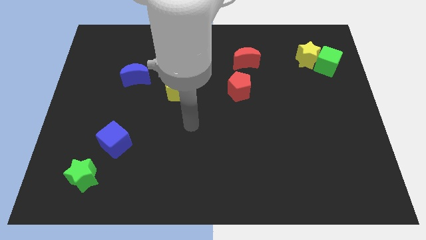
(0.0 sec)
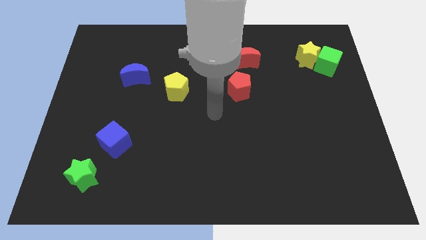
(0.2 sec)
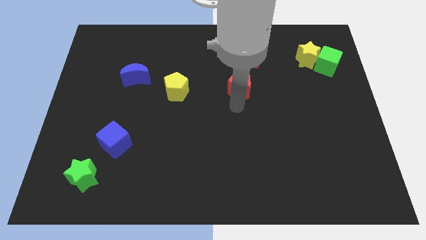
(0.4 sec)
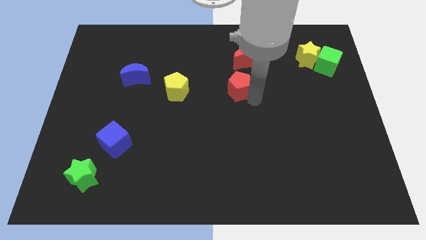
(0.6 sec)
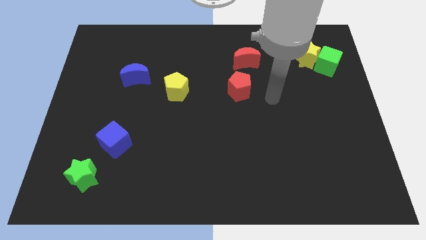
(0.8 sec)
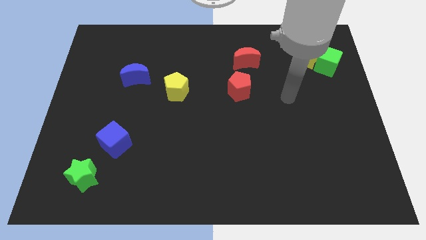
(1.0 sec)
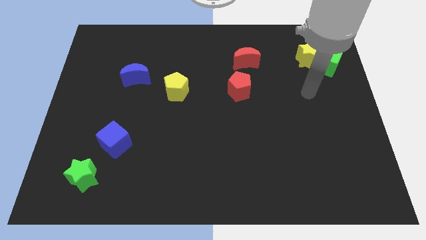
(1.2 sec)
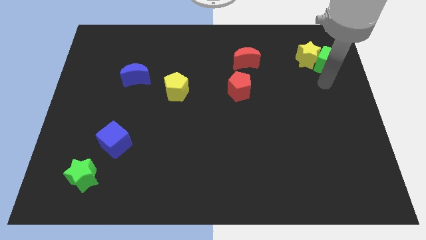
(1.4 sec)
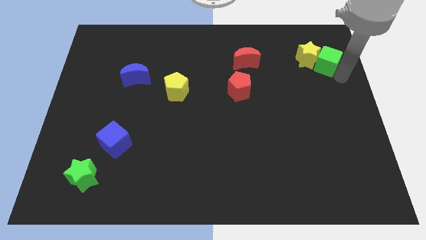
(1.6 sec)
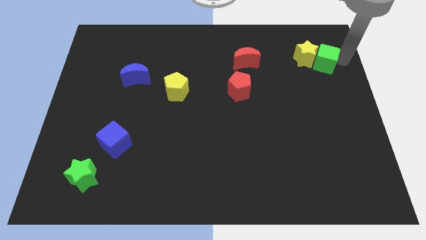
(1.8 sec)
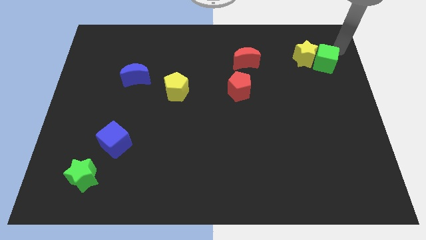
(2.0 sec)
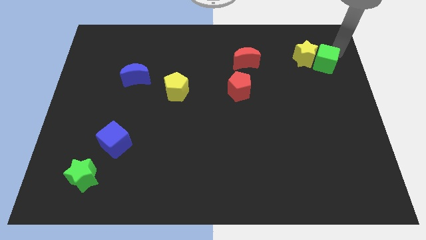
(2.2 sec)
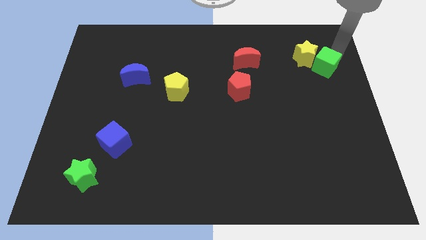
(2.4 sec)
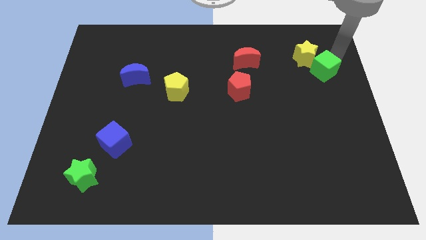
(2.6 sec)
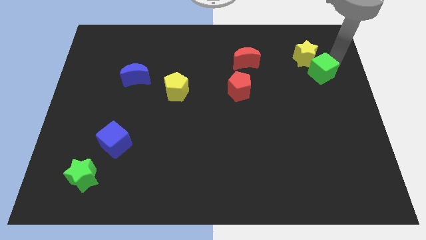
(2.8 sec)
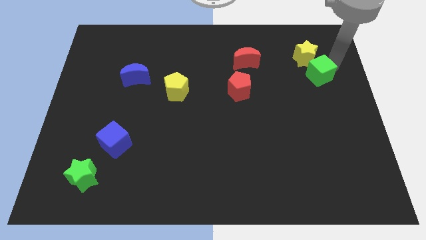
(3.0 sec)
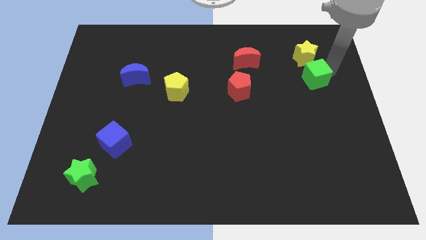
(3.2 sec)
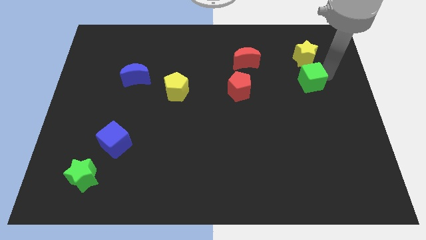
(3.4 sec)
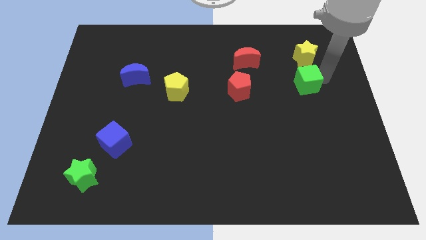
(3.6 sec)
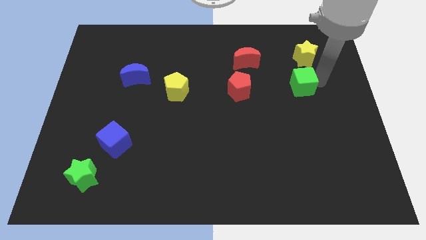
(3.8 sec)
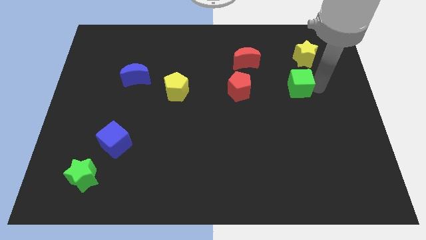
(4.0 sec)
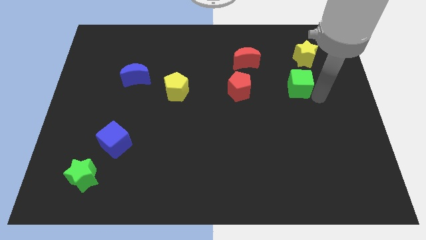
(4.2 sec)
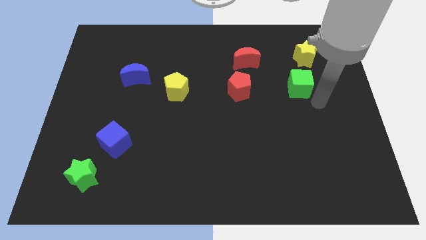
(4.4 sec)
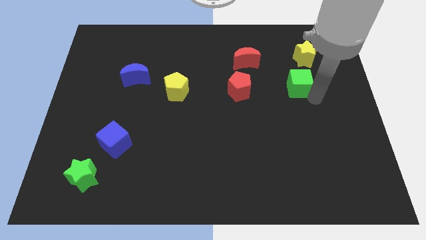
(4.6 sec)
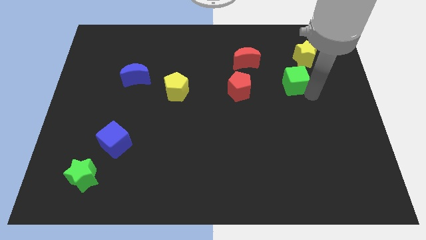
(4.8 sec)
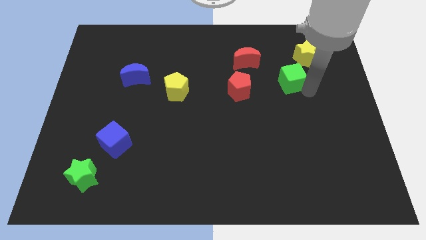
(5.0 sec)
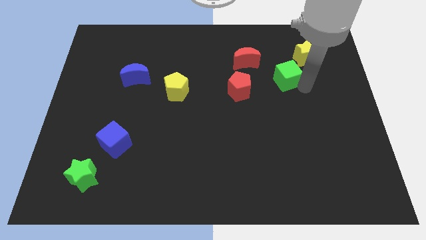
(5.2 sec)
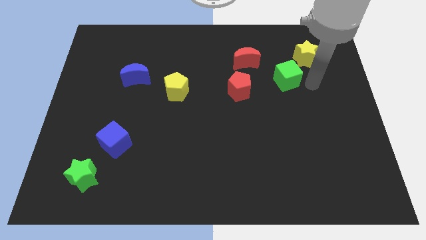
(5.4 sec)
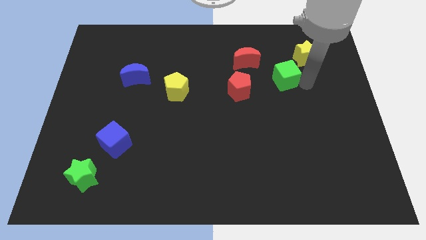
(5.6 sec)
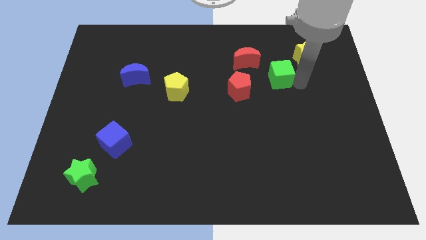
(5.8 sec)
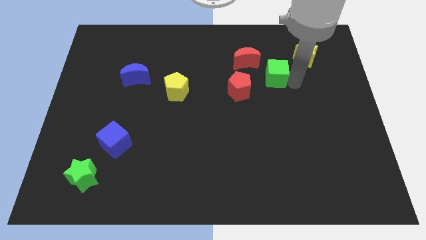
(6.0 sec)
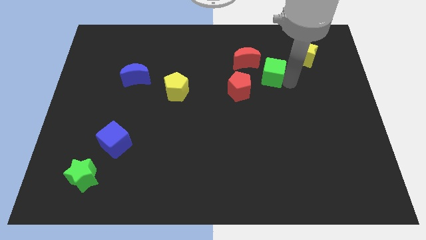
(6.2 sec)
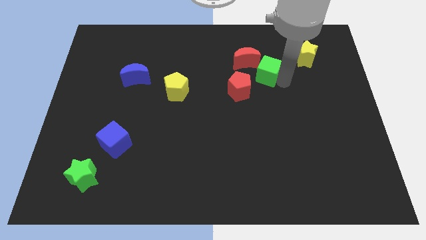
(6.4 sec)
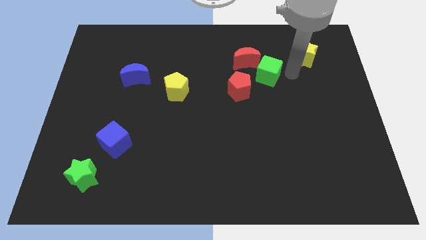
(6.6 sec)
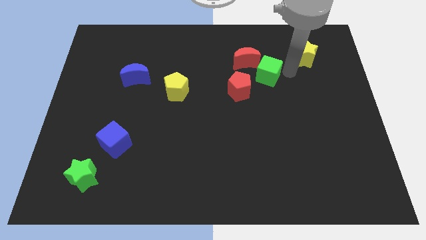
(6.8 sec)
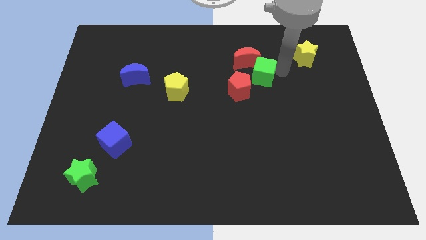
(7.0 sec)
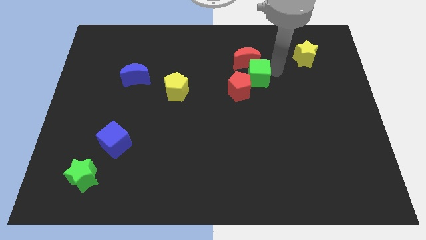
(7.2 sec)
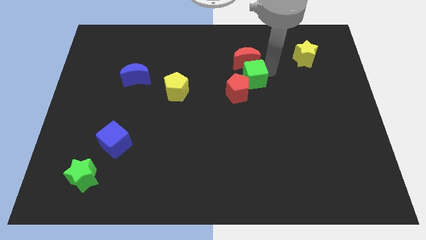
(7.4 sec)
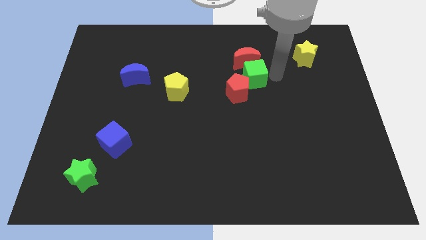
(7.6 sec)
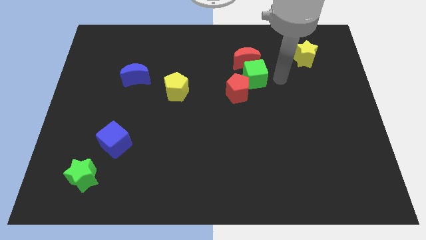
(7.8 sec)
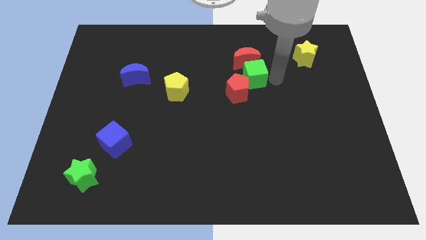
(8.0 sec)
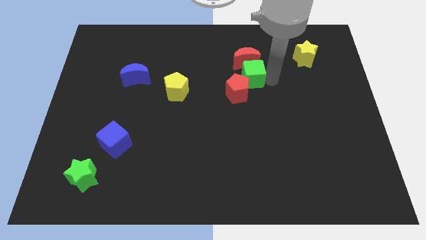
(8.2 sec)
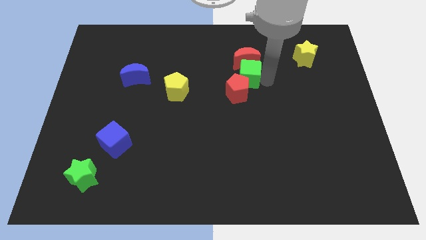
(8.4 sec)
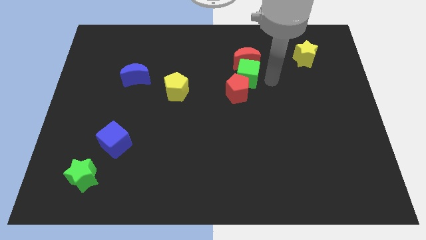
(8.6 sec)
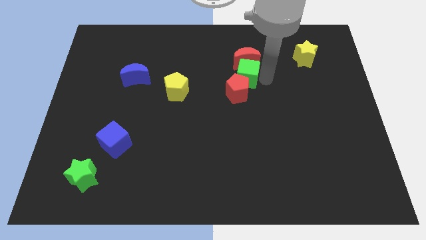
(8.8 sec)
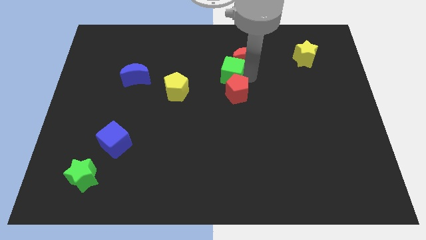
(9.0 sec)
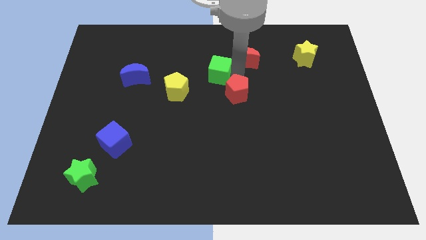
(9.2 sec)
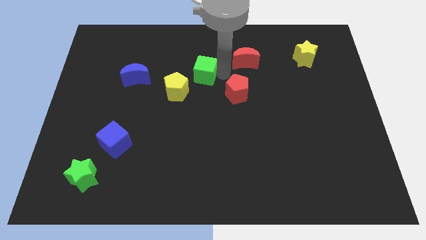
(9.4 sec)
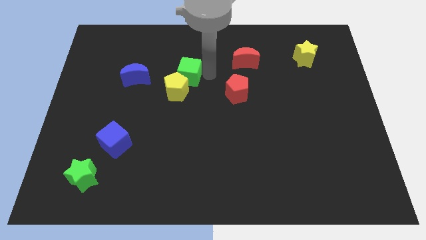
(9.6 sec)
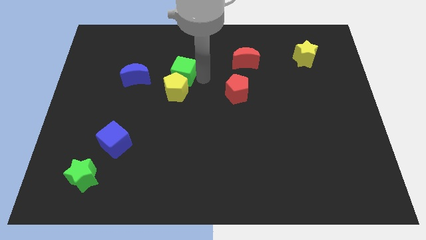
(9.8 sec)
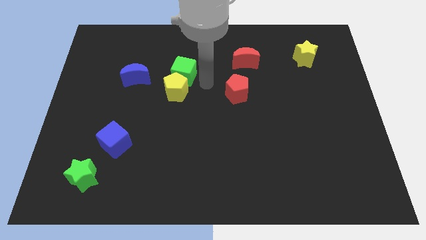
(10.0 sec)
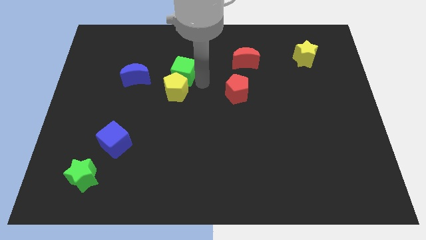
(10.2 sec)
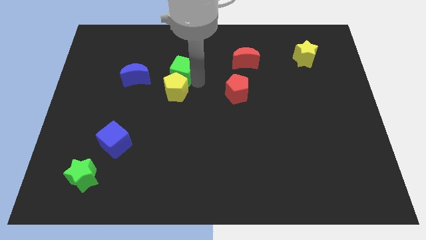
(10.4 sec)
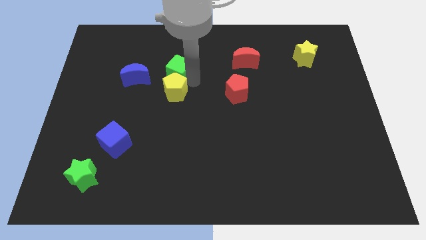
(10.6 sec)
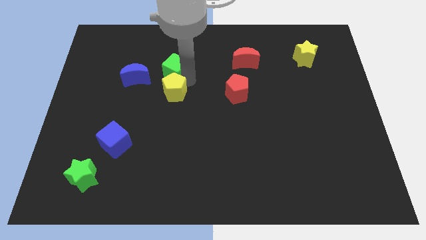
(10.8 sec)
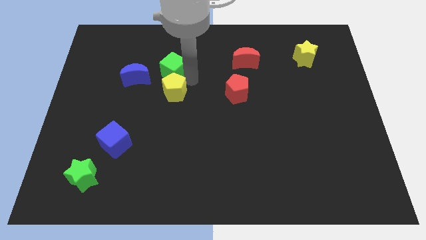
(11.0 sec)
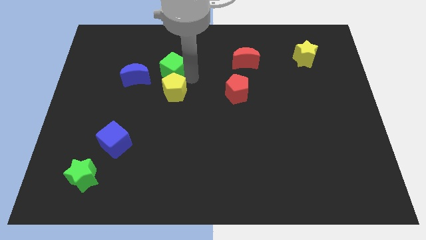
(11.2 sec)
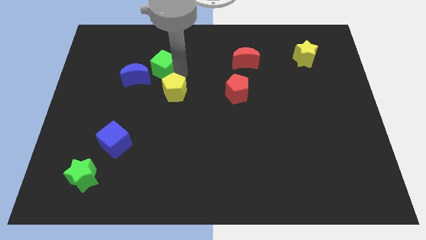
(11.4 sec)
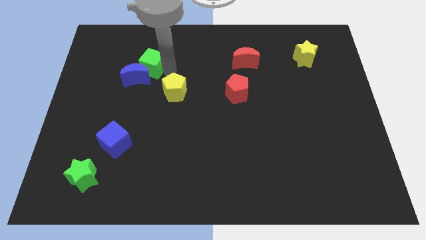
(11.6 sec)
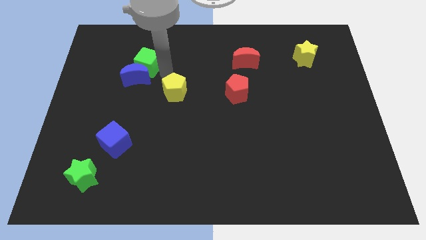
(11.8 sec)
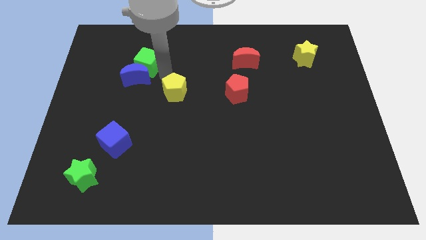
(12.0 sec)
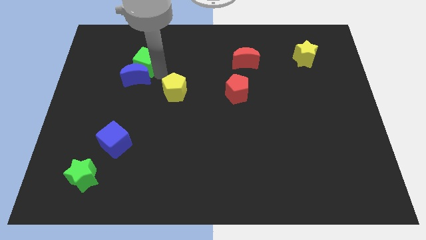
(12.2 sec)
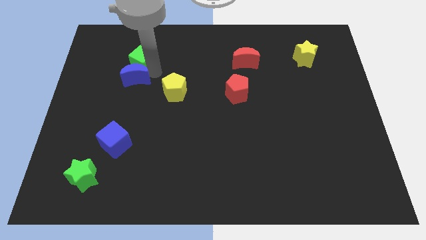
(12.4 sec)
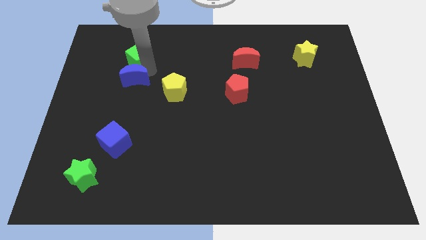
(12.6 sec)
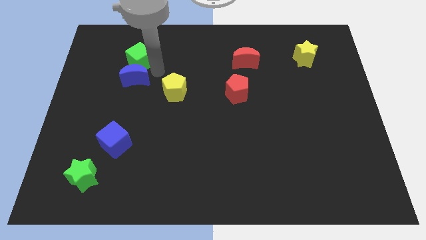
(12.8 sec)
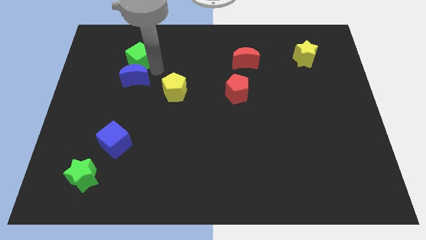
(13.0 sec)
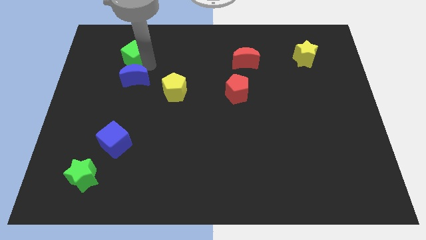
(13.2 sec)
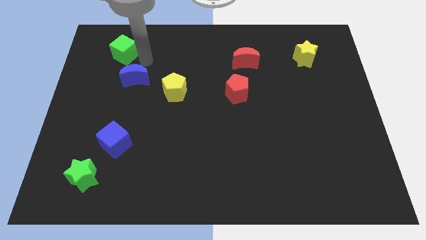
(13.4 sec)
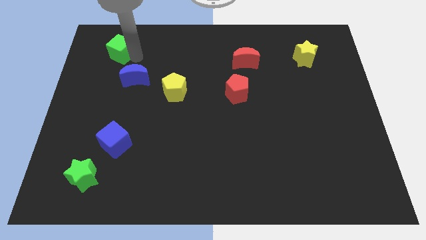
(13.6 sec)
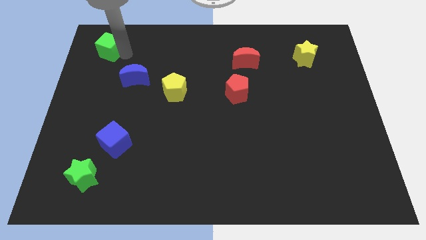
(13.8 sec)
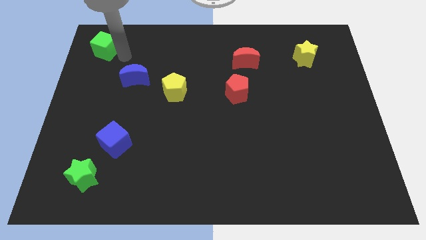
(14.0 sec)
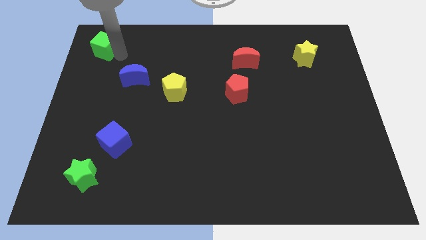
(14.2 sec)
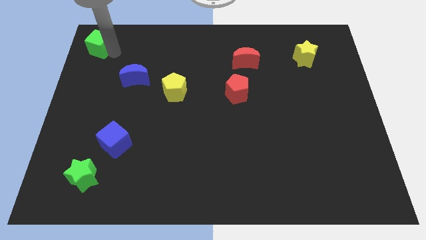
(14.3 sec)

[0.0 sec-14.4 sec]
push the green cube to the top left

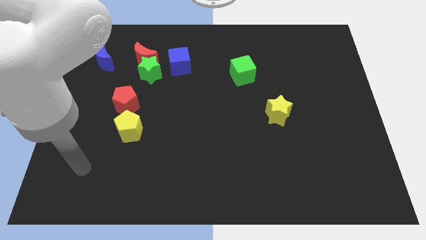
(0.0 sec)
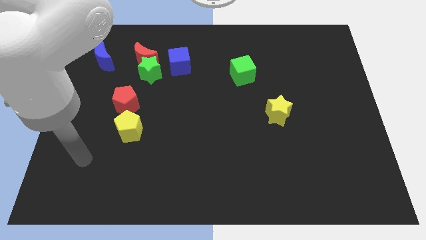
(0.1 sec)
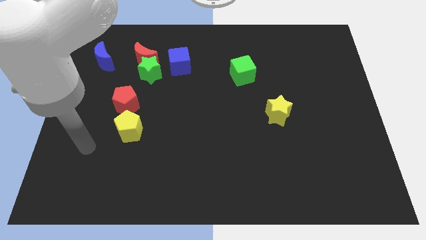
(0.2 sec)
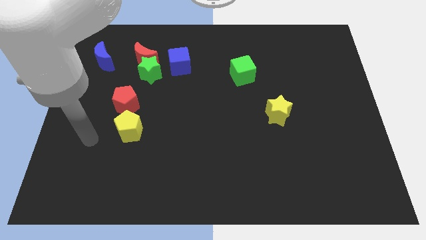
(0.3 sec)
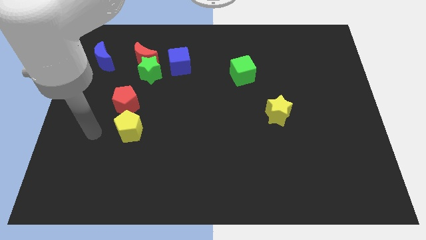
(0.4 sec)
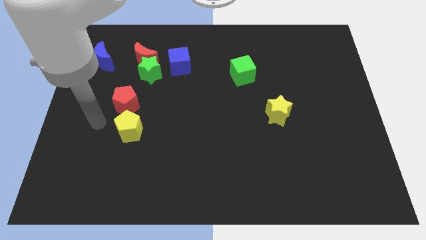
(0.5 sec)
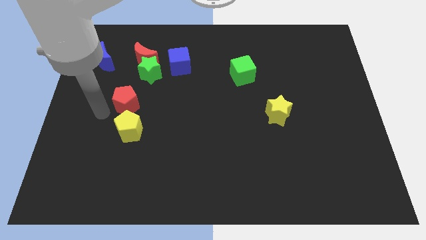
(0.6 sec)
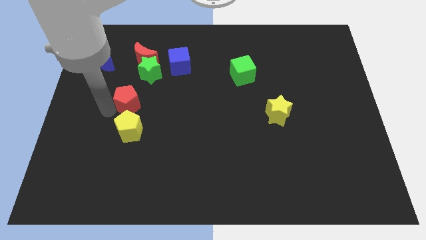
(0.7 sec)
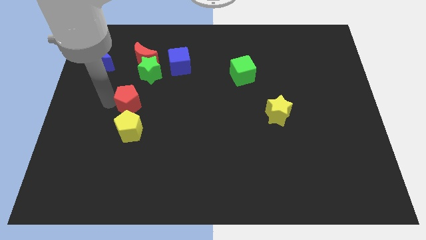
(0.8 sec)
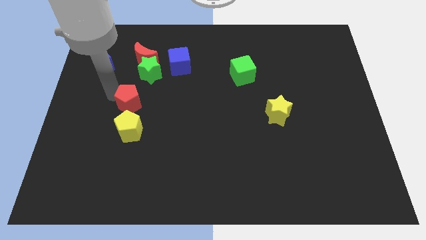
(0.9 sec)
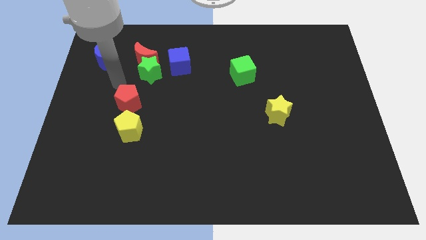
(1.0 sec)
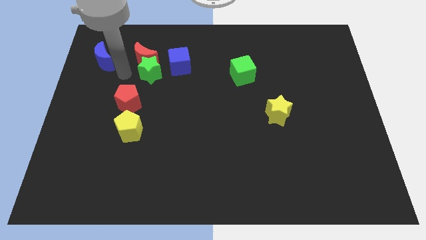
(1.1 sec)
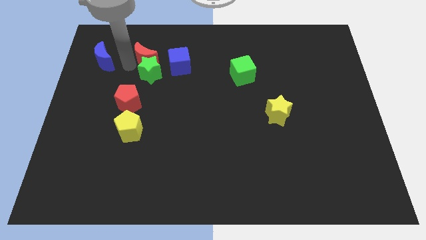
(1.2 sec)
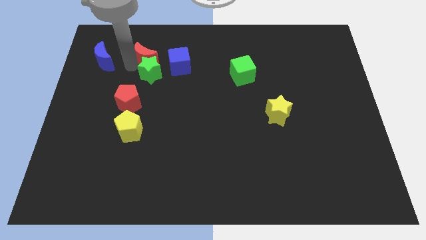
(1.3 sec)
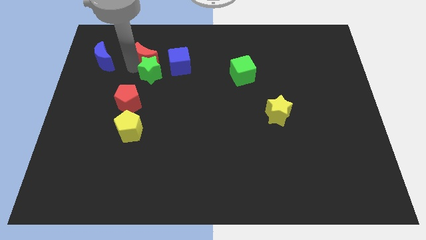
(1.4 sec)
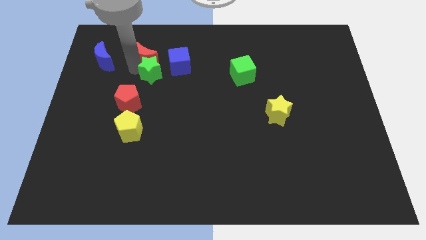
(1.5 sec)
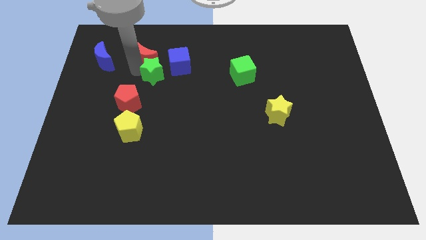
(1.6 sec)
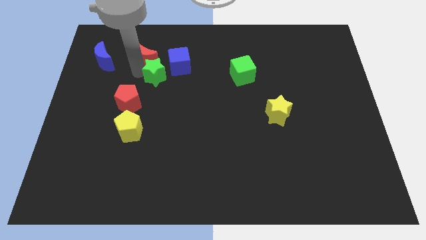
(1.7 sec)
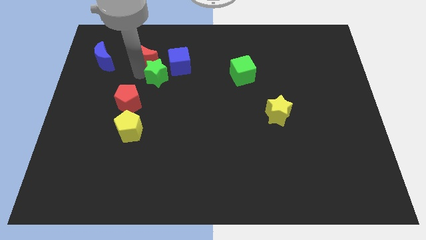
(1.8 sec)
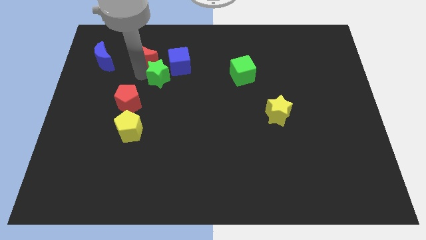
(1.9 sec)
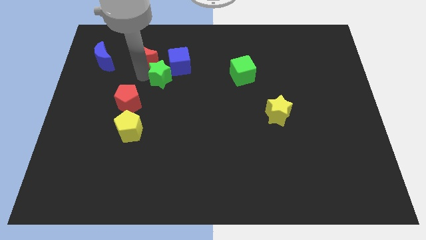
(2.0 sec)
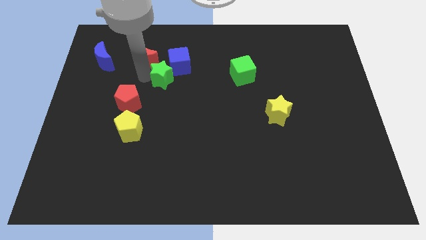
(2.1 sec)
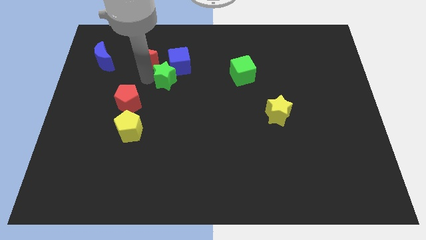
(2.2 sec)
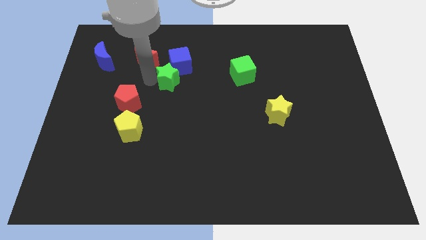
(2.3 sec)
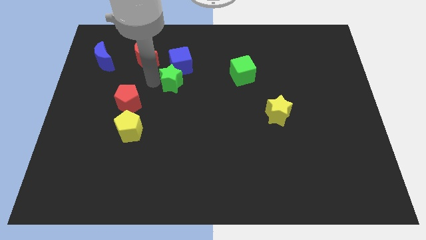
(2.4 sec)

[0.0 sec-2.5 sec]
move the green star to the center
